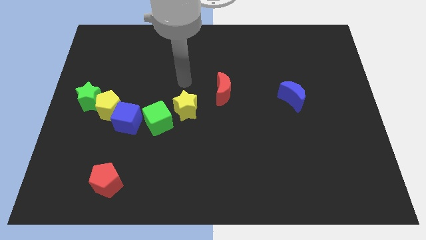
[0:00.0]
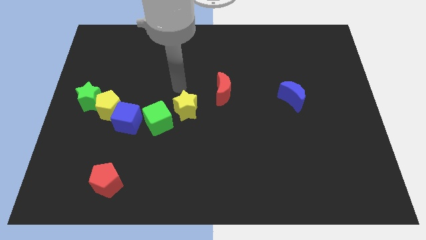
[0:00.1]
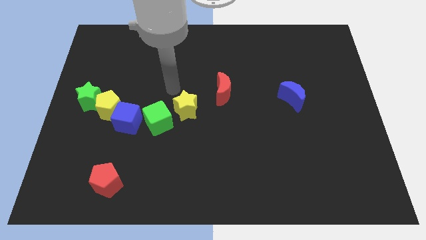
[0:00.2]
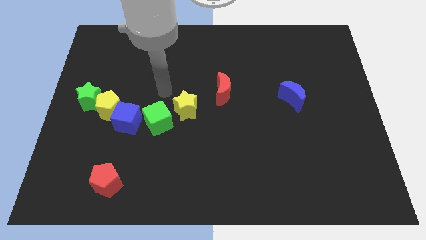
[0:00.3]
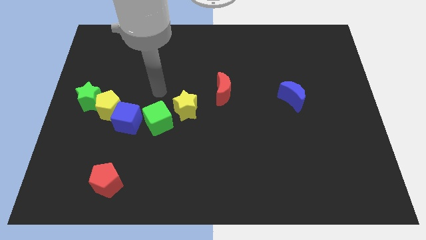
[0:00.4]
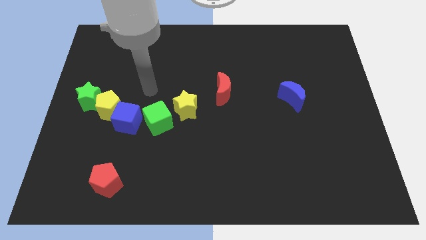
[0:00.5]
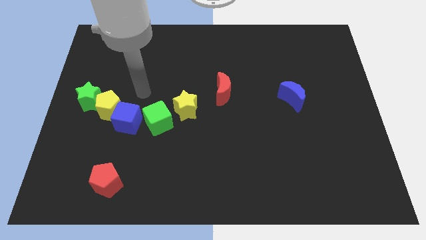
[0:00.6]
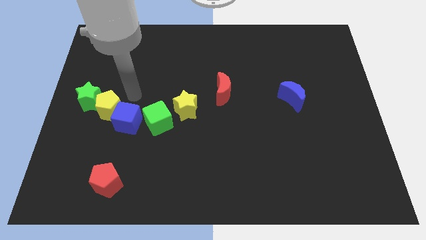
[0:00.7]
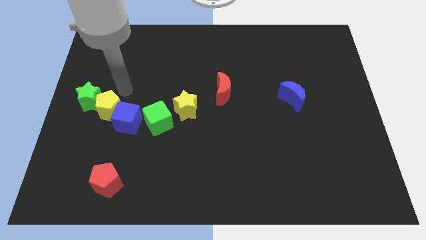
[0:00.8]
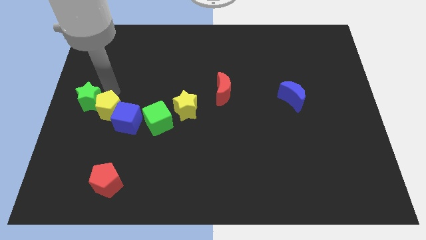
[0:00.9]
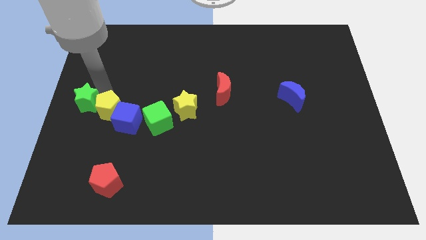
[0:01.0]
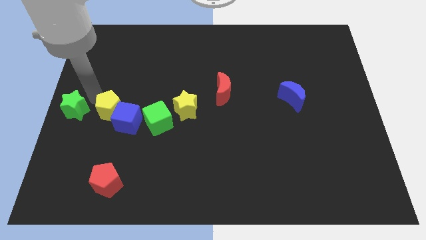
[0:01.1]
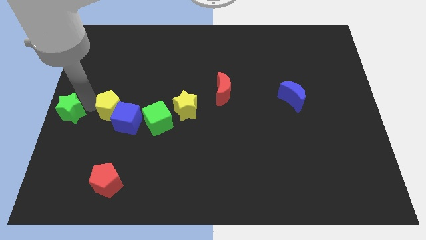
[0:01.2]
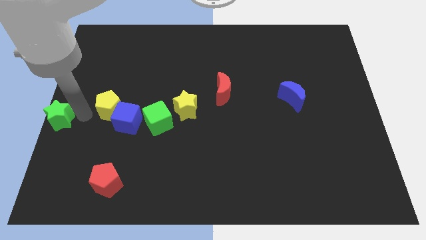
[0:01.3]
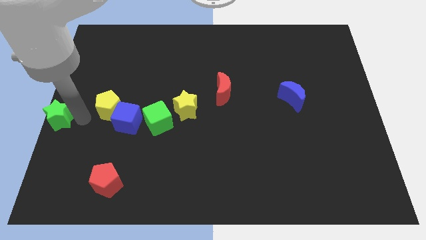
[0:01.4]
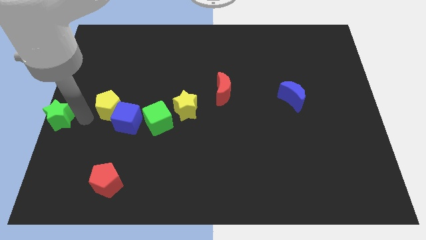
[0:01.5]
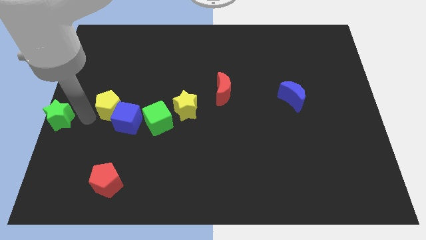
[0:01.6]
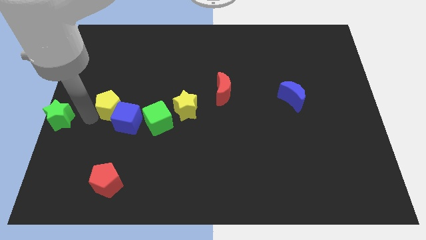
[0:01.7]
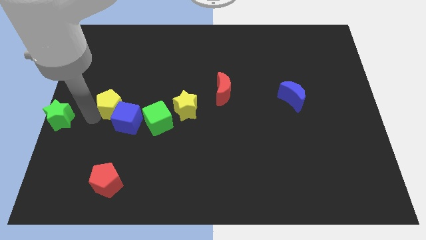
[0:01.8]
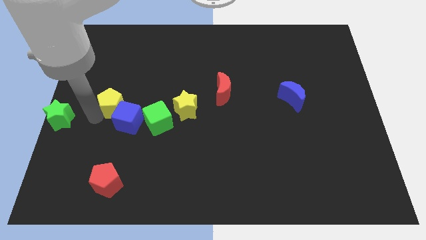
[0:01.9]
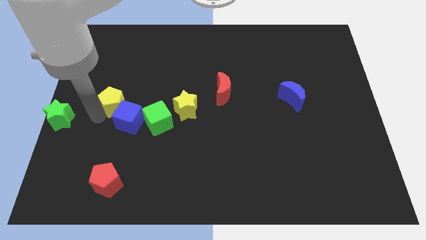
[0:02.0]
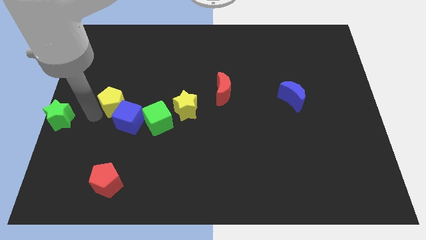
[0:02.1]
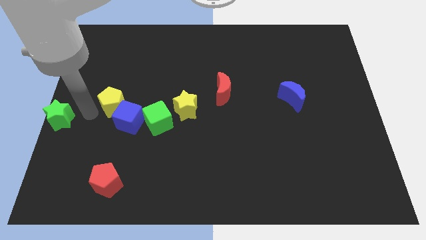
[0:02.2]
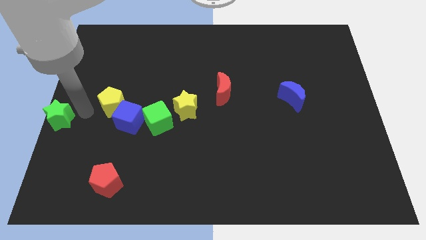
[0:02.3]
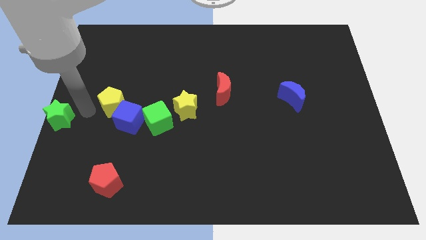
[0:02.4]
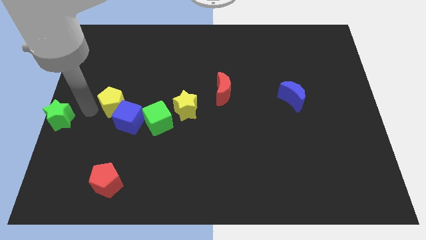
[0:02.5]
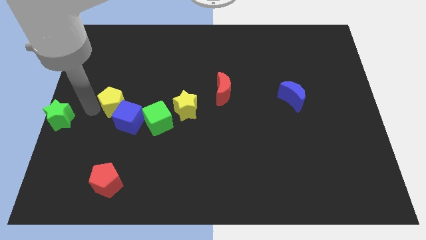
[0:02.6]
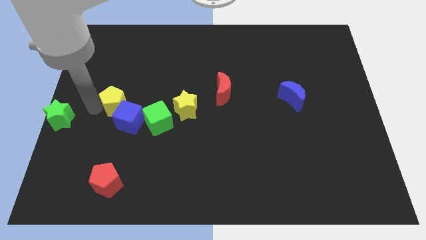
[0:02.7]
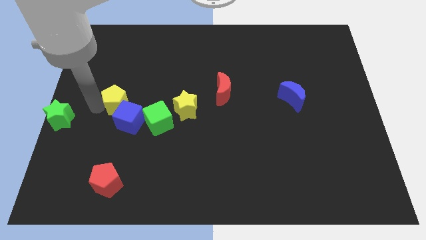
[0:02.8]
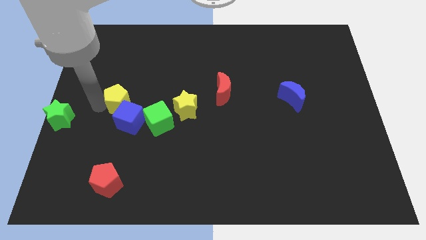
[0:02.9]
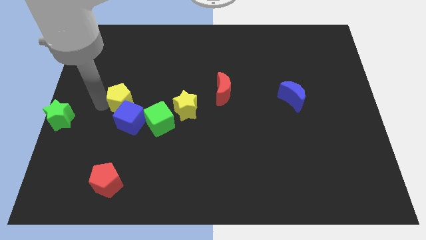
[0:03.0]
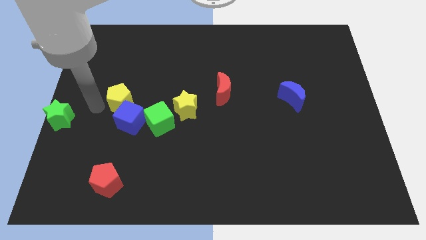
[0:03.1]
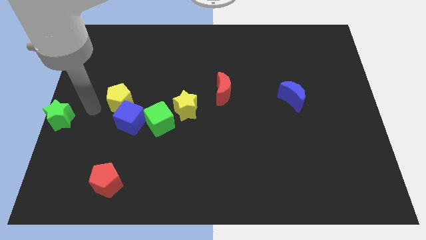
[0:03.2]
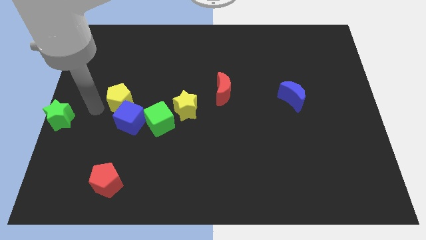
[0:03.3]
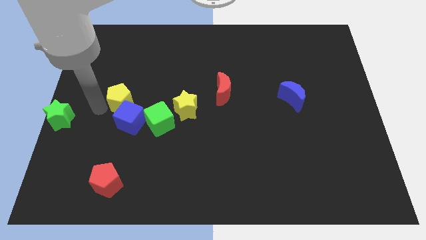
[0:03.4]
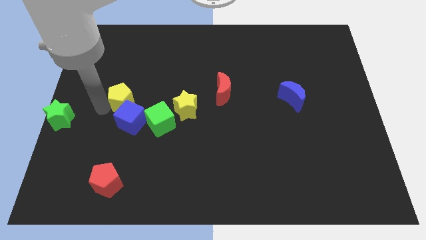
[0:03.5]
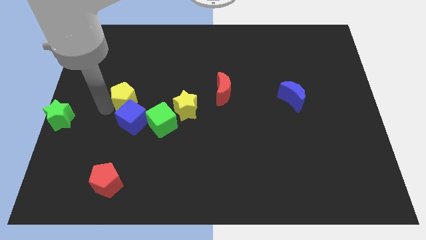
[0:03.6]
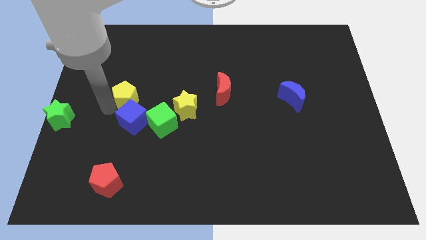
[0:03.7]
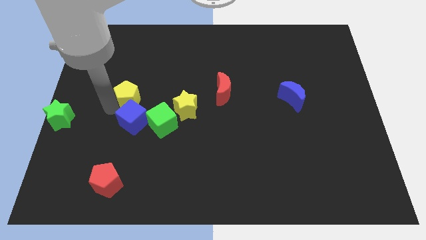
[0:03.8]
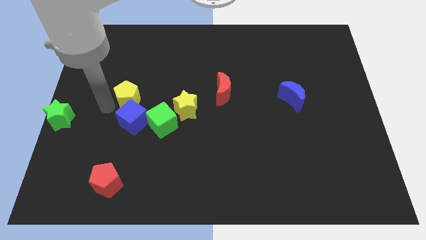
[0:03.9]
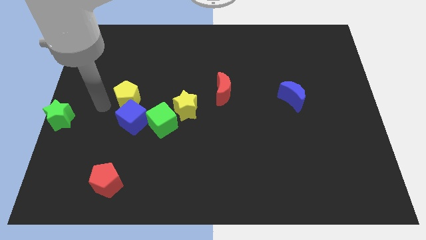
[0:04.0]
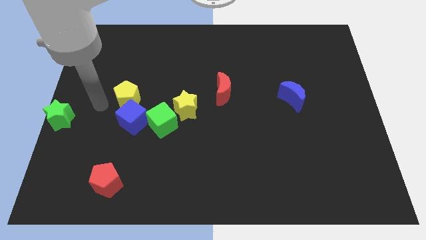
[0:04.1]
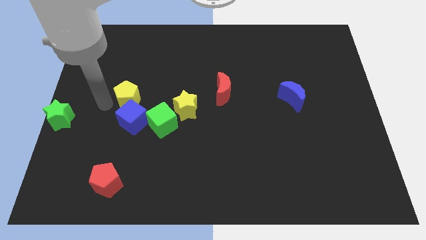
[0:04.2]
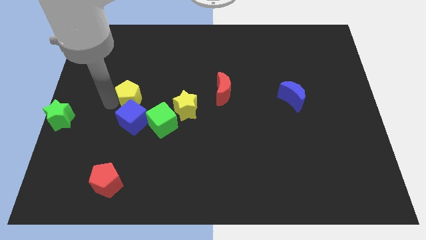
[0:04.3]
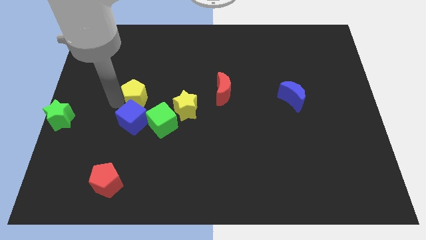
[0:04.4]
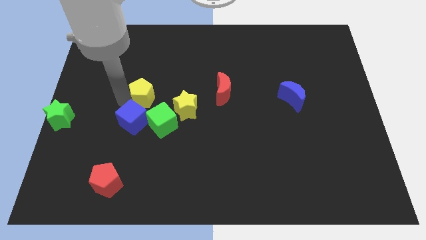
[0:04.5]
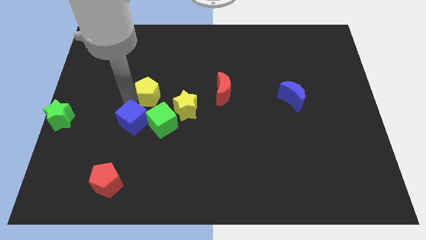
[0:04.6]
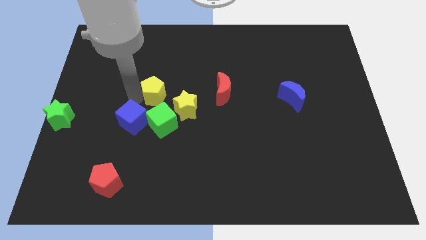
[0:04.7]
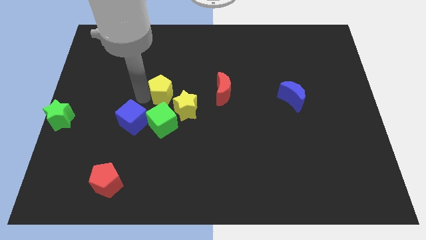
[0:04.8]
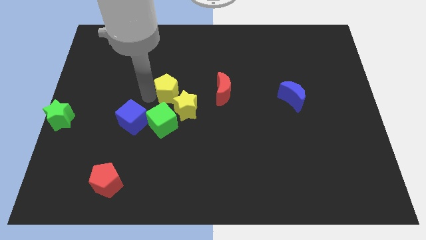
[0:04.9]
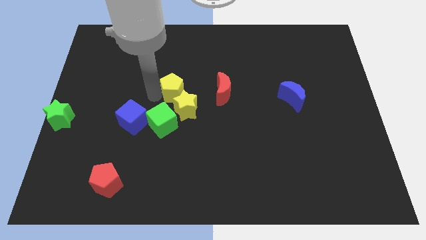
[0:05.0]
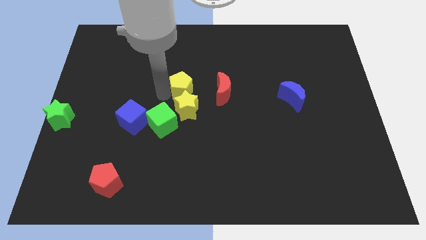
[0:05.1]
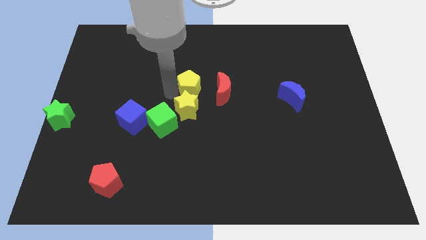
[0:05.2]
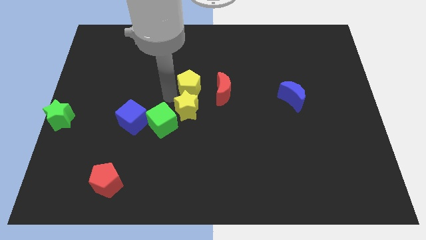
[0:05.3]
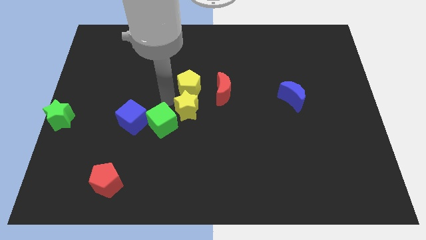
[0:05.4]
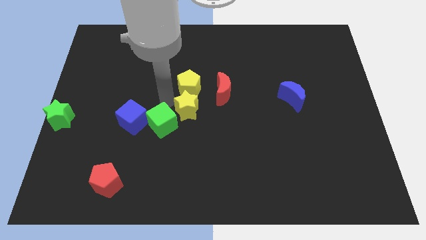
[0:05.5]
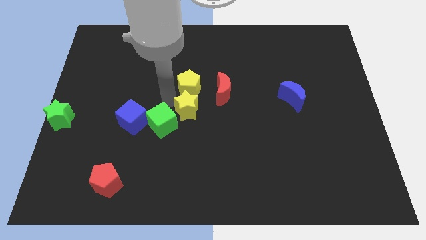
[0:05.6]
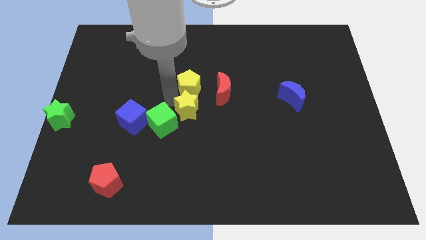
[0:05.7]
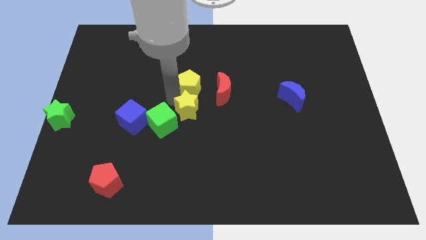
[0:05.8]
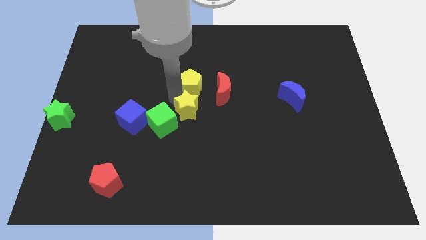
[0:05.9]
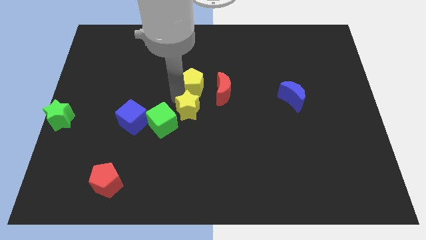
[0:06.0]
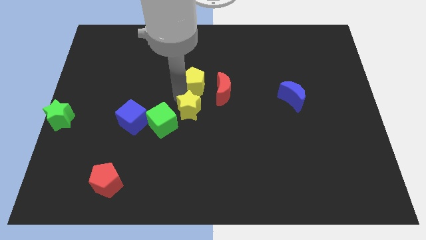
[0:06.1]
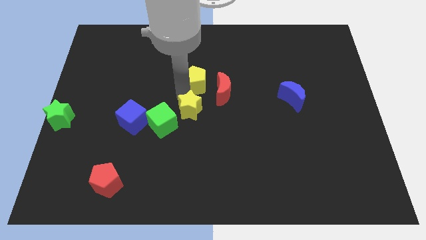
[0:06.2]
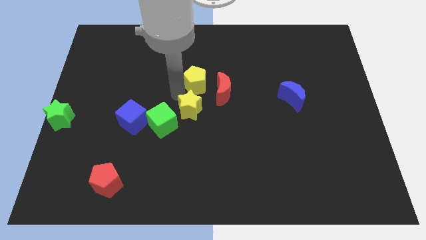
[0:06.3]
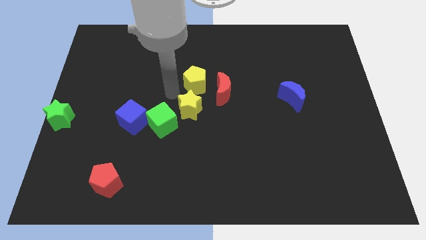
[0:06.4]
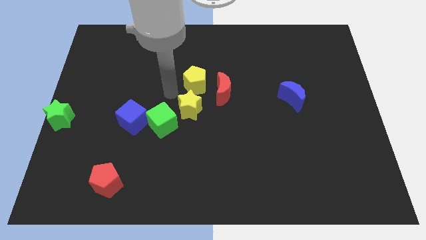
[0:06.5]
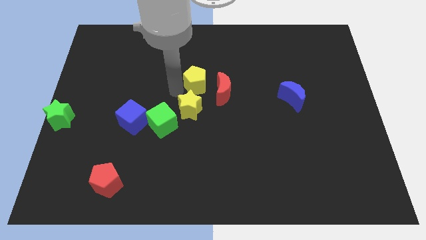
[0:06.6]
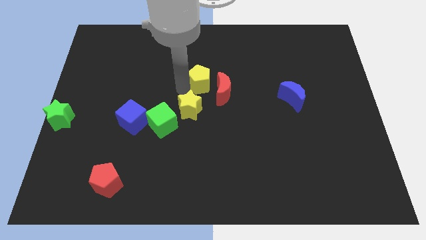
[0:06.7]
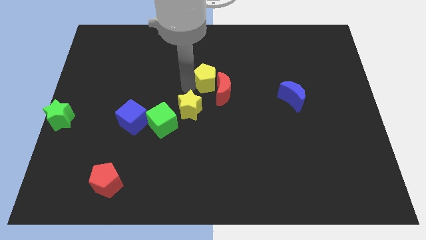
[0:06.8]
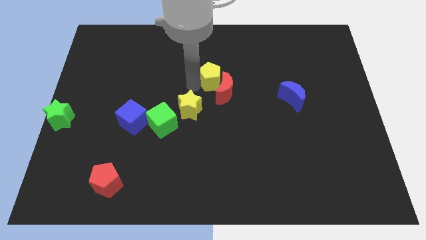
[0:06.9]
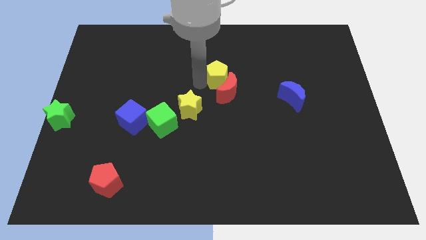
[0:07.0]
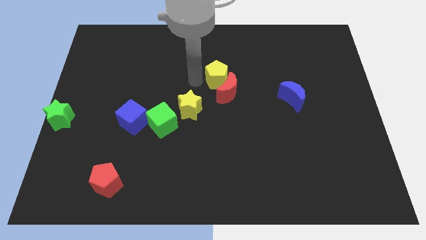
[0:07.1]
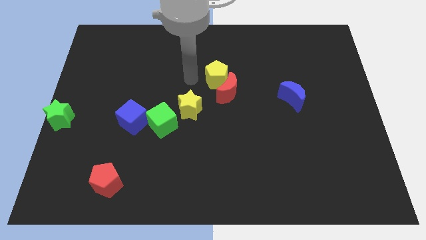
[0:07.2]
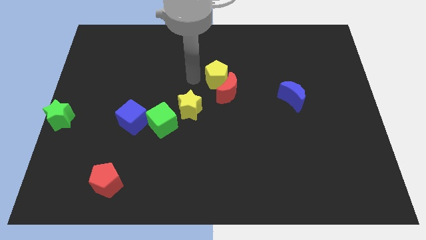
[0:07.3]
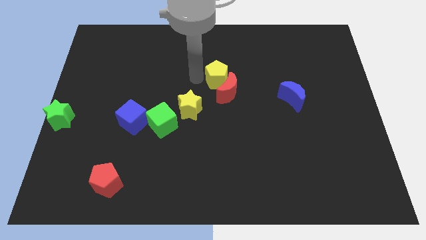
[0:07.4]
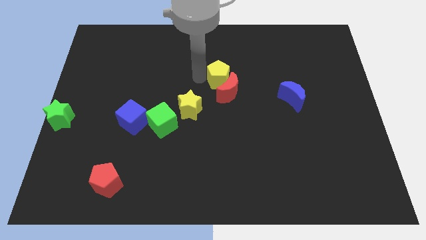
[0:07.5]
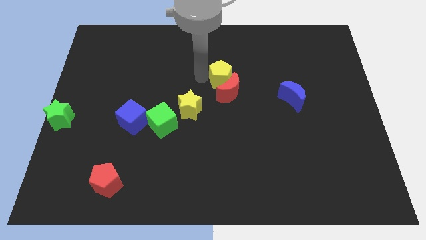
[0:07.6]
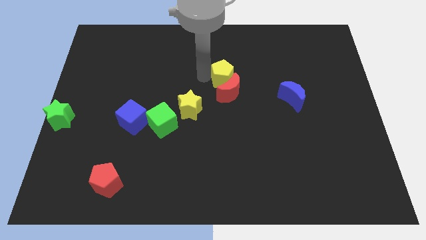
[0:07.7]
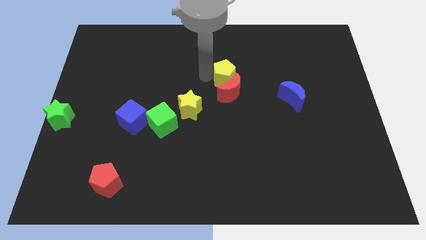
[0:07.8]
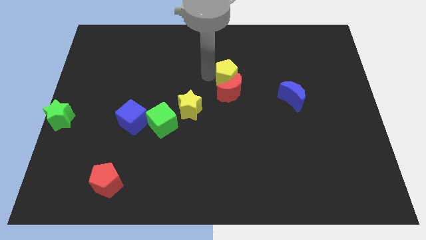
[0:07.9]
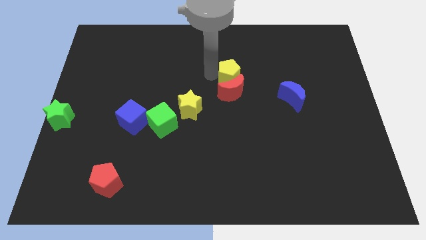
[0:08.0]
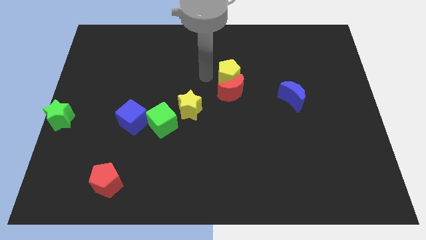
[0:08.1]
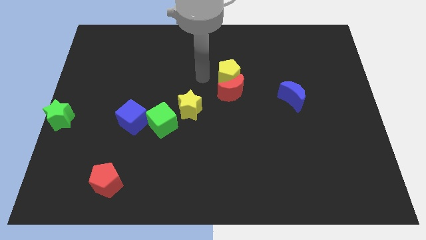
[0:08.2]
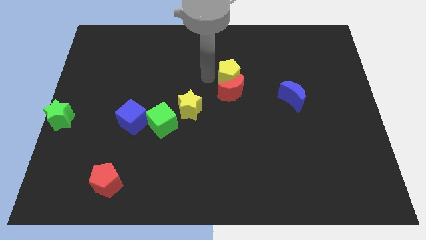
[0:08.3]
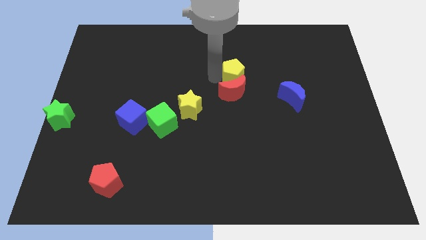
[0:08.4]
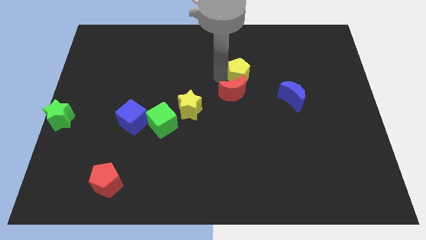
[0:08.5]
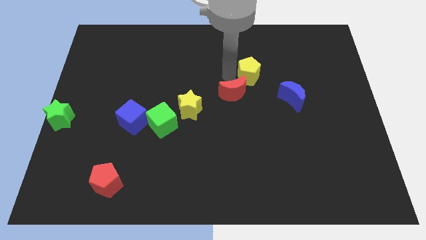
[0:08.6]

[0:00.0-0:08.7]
put the yellow pentagon to the top left side of the blue moon
